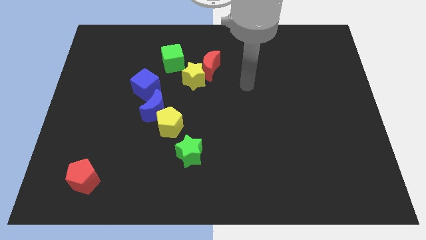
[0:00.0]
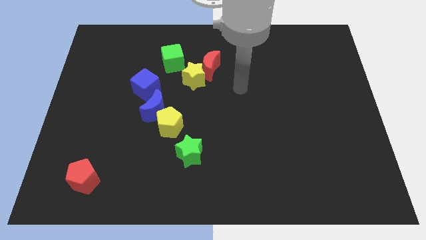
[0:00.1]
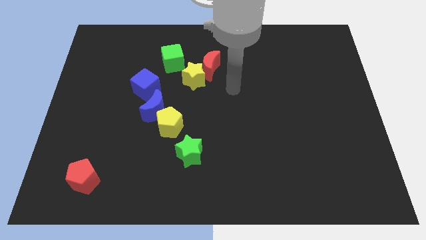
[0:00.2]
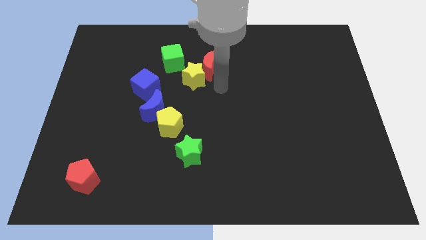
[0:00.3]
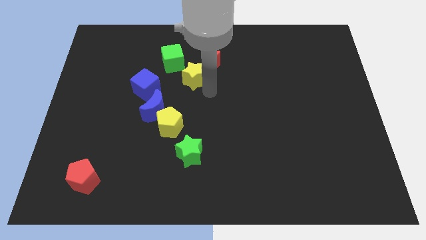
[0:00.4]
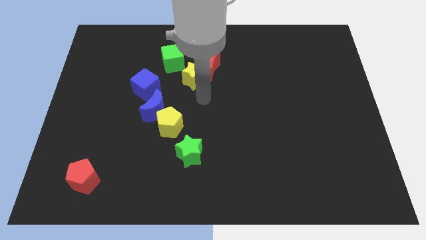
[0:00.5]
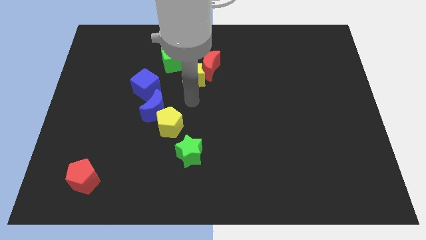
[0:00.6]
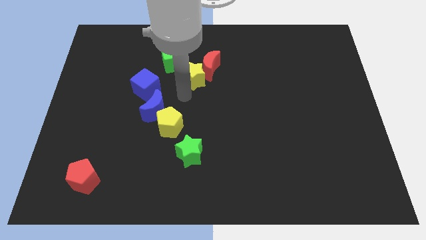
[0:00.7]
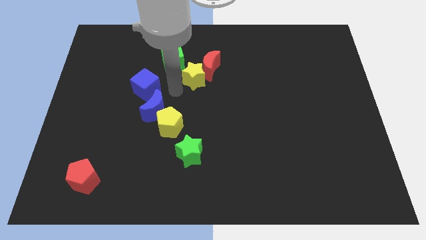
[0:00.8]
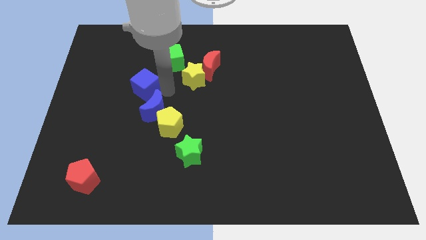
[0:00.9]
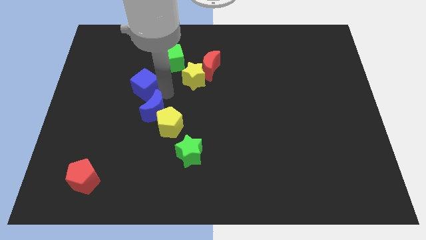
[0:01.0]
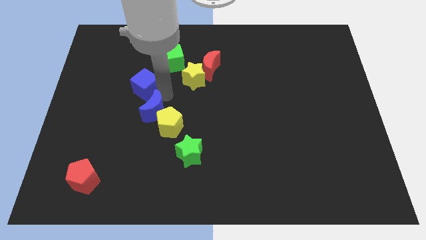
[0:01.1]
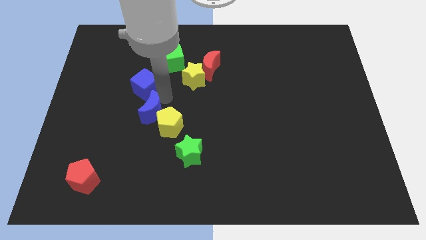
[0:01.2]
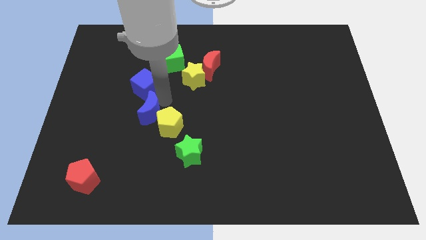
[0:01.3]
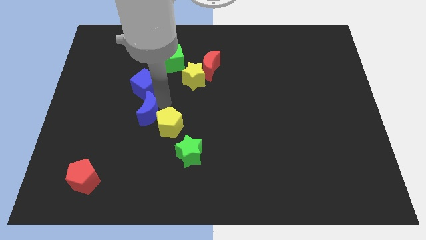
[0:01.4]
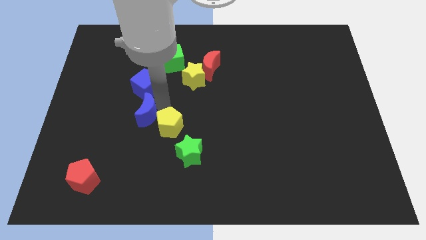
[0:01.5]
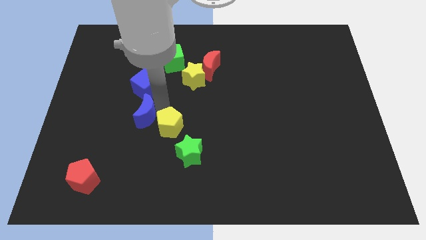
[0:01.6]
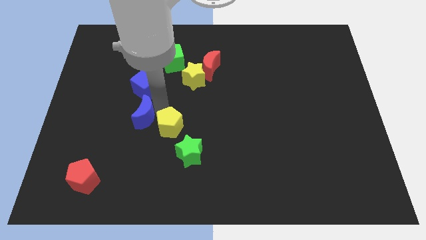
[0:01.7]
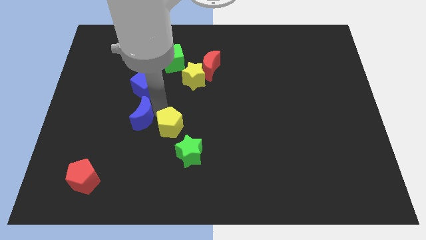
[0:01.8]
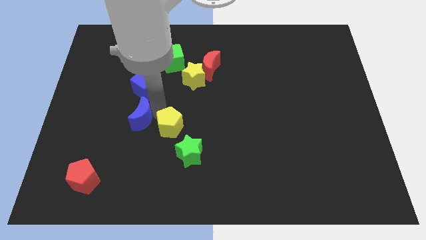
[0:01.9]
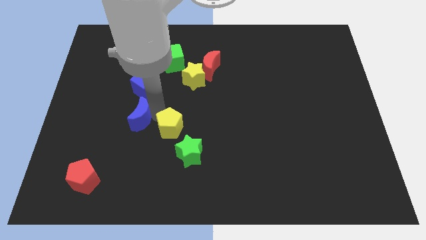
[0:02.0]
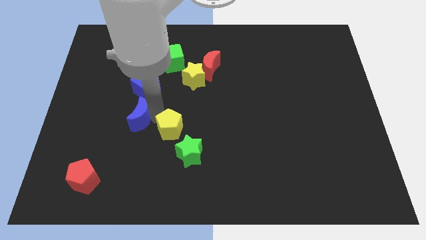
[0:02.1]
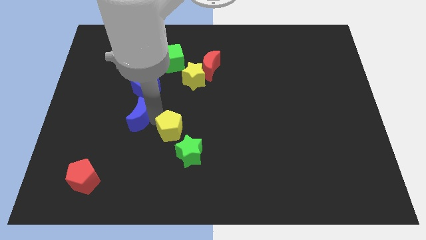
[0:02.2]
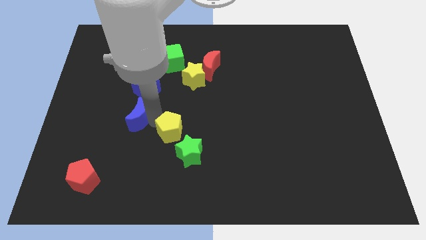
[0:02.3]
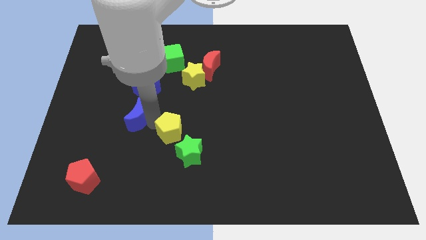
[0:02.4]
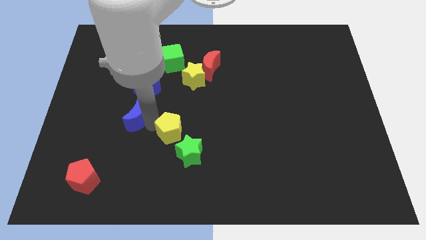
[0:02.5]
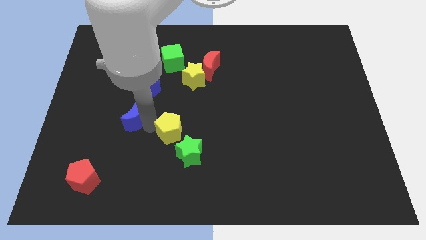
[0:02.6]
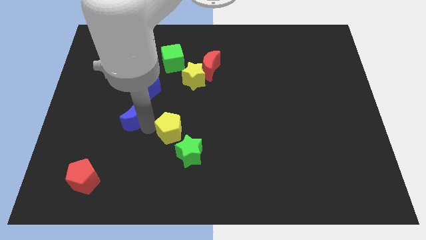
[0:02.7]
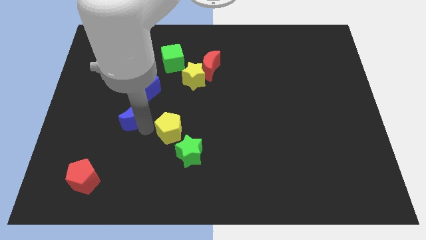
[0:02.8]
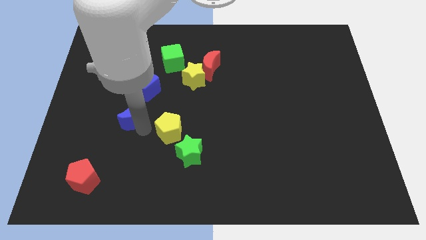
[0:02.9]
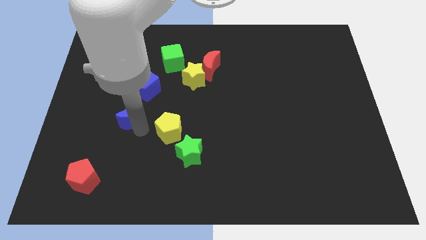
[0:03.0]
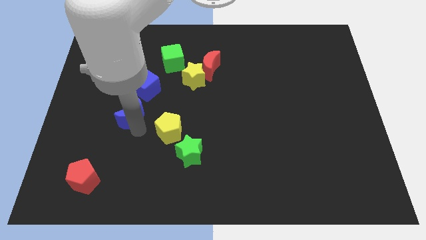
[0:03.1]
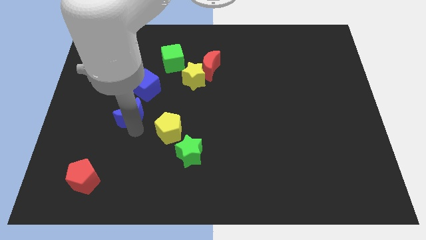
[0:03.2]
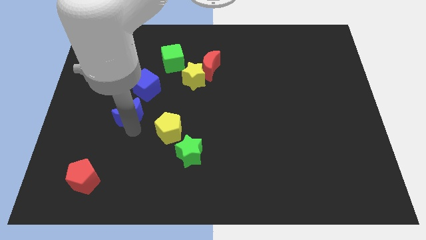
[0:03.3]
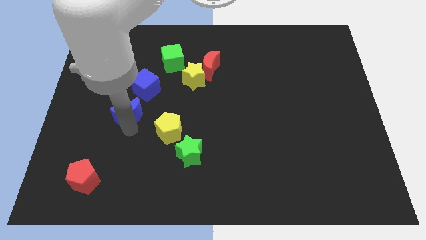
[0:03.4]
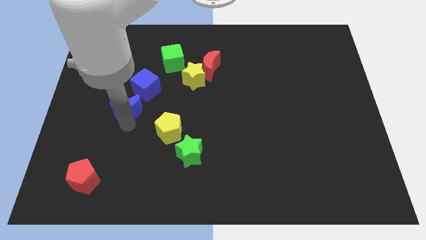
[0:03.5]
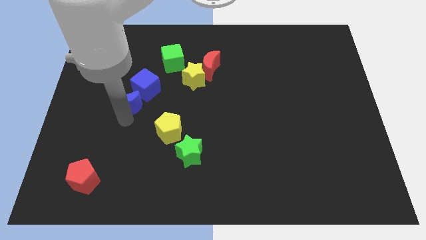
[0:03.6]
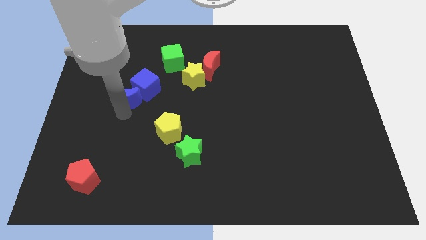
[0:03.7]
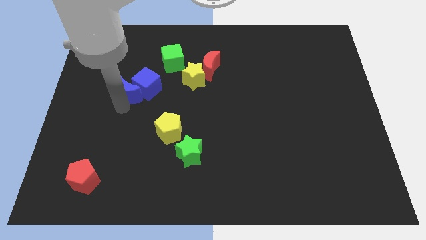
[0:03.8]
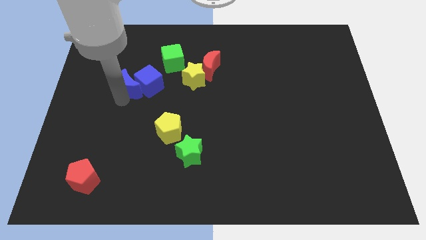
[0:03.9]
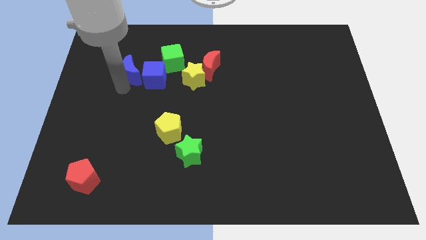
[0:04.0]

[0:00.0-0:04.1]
move the blue moon away from the yellow pentagon and blue cube

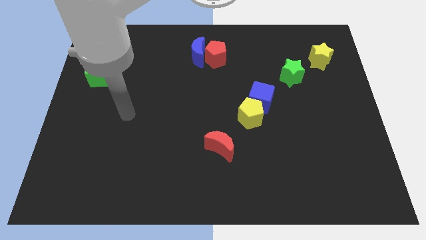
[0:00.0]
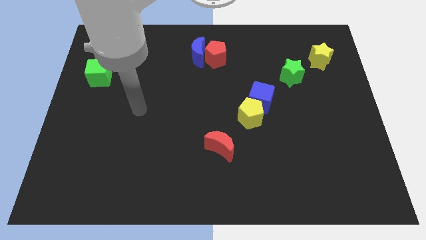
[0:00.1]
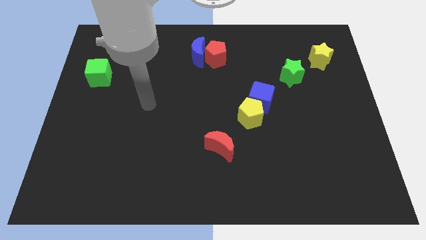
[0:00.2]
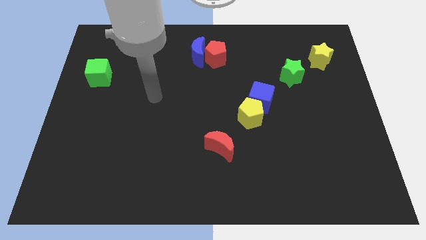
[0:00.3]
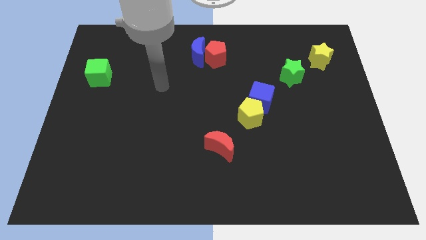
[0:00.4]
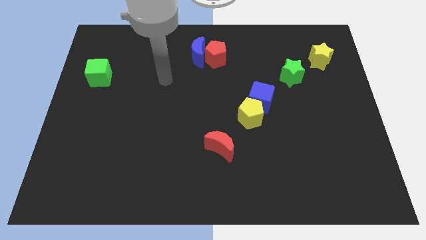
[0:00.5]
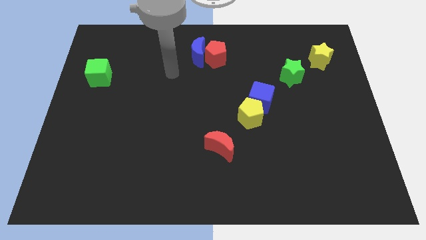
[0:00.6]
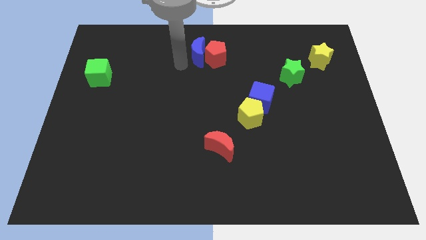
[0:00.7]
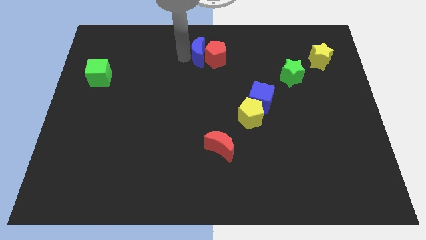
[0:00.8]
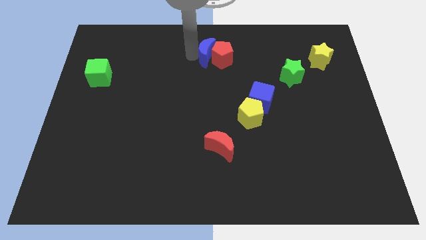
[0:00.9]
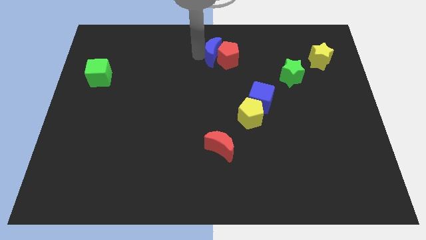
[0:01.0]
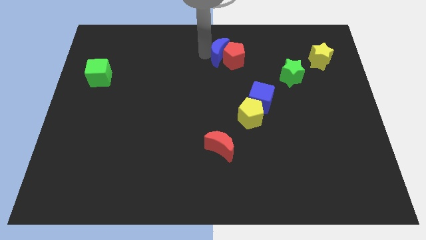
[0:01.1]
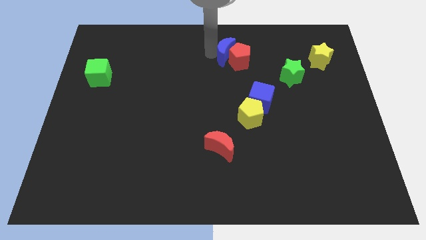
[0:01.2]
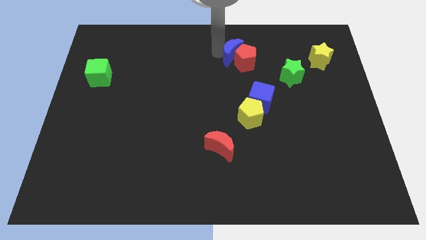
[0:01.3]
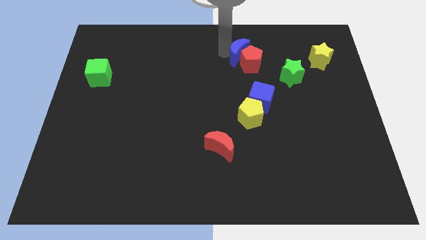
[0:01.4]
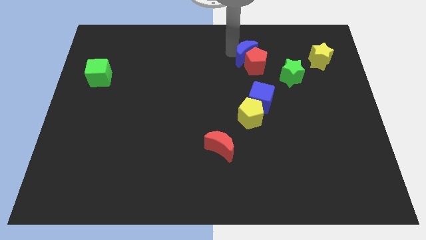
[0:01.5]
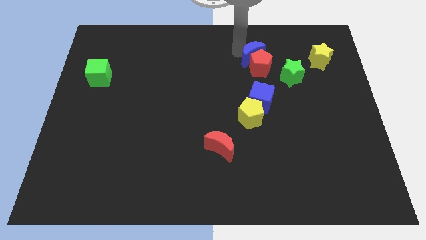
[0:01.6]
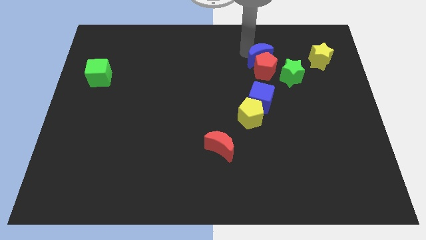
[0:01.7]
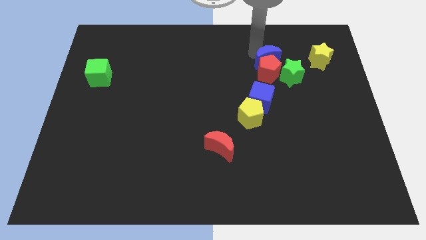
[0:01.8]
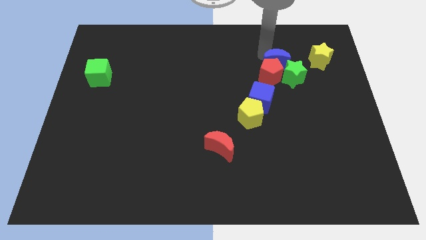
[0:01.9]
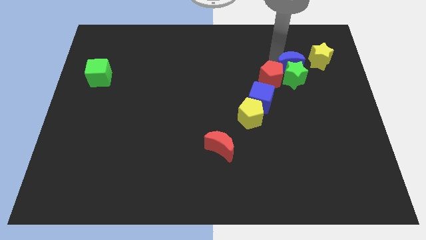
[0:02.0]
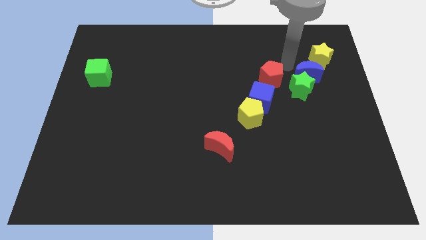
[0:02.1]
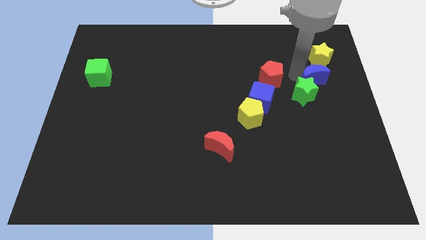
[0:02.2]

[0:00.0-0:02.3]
pull the red pentagon apart from the blue moon

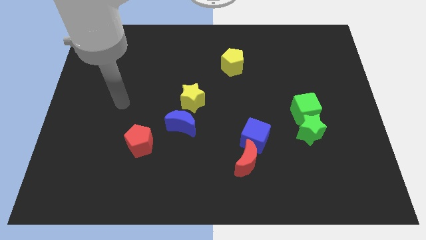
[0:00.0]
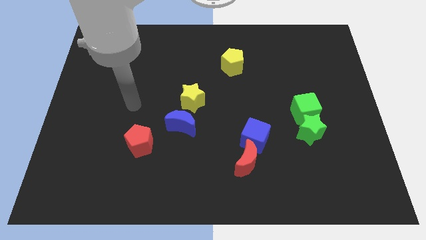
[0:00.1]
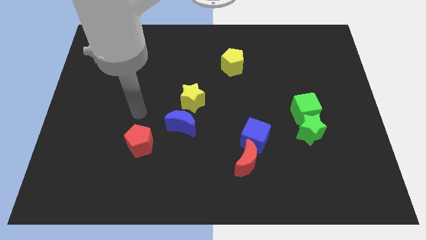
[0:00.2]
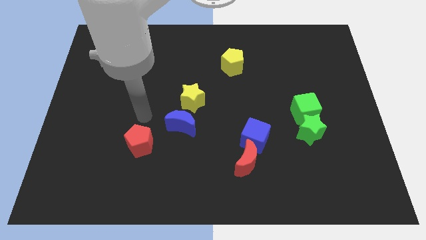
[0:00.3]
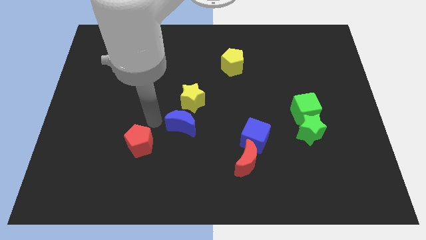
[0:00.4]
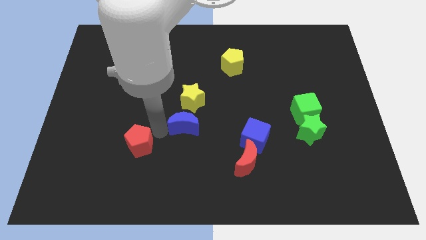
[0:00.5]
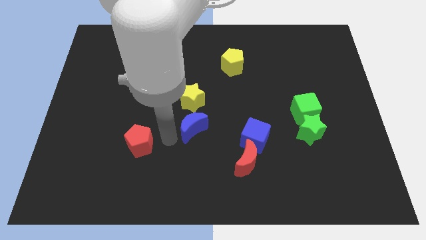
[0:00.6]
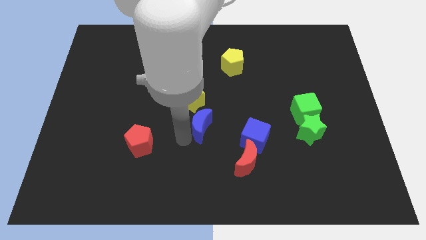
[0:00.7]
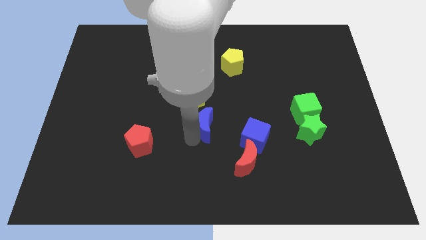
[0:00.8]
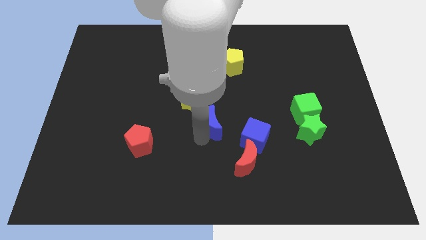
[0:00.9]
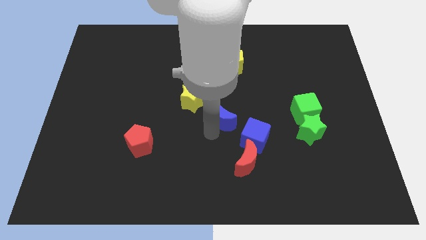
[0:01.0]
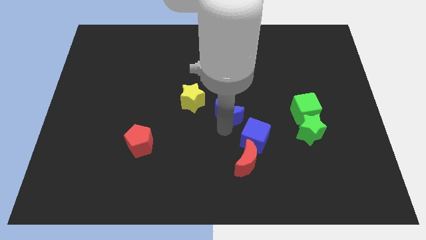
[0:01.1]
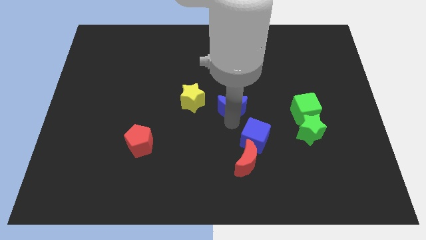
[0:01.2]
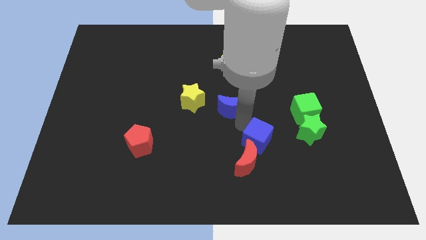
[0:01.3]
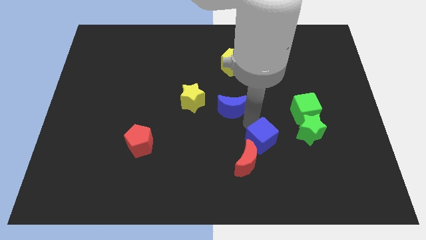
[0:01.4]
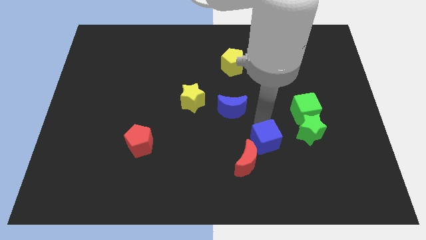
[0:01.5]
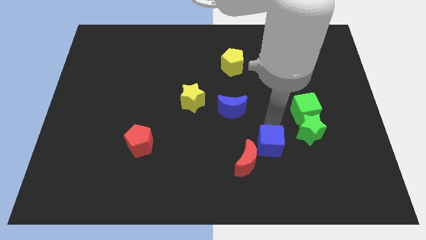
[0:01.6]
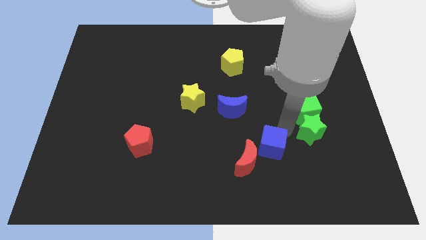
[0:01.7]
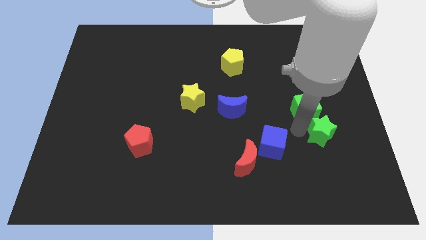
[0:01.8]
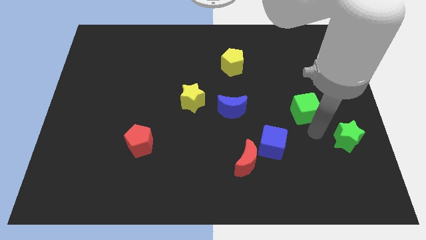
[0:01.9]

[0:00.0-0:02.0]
separate the green cube from the green star

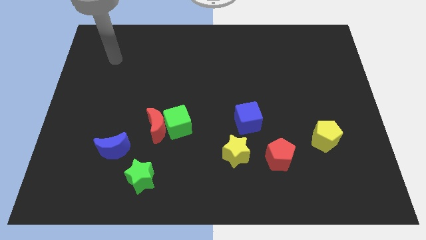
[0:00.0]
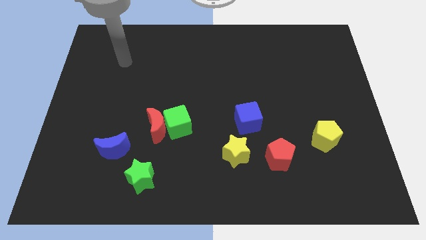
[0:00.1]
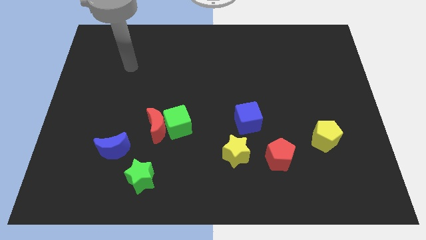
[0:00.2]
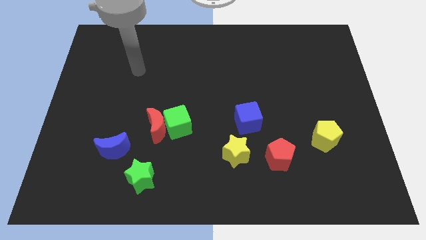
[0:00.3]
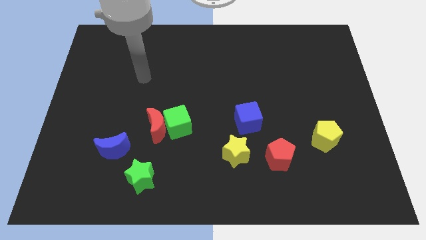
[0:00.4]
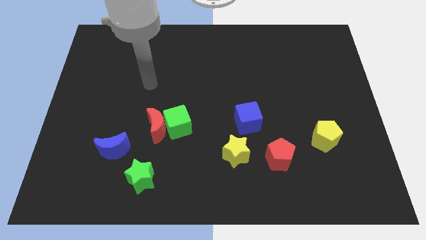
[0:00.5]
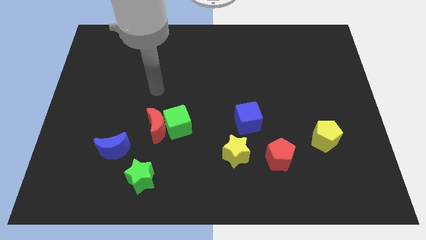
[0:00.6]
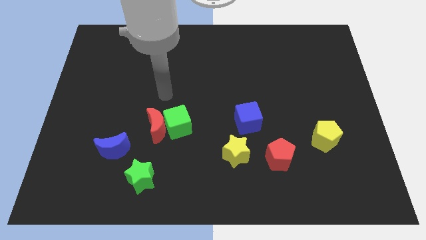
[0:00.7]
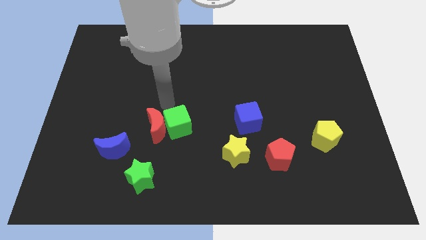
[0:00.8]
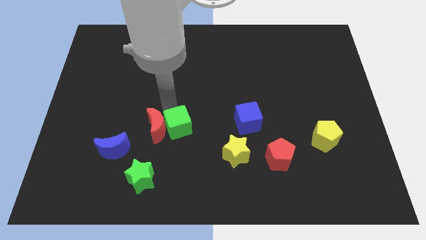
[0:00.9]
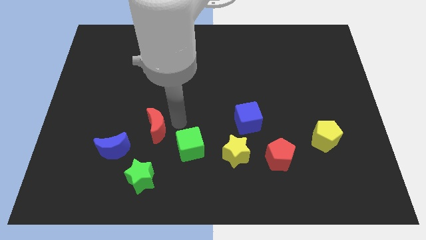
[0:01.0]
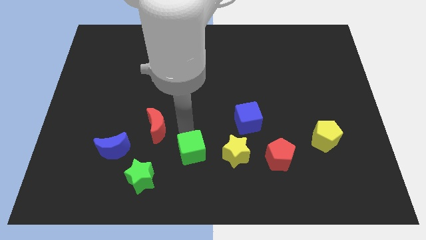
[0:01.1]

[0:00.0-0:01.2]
separate the red moon from the green cube
